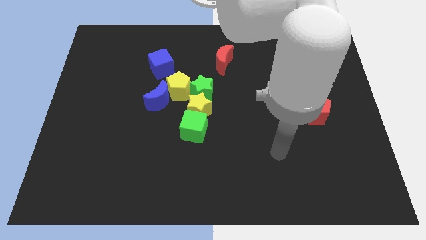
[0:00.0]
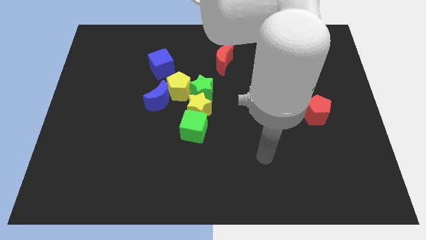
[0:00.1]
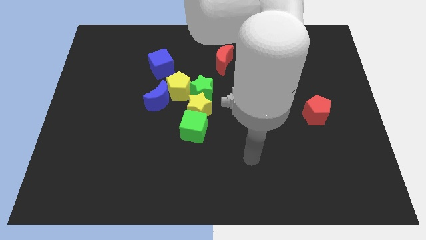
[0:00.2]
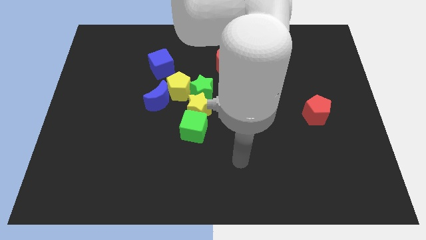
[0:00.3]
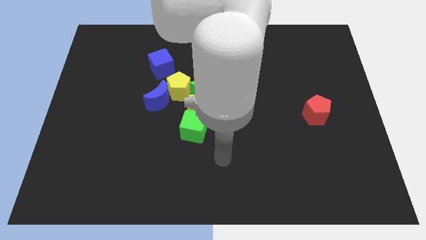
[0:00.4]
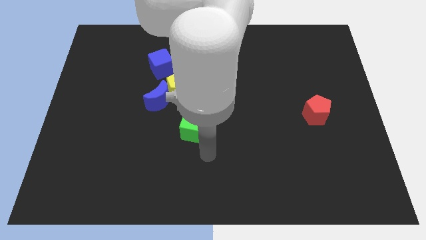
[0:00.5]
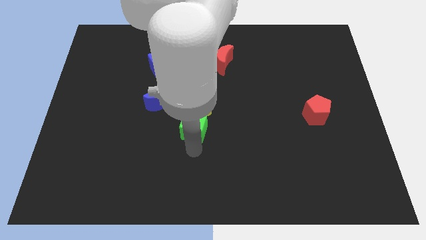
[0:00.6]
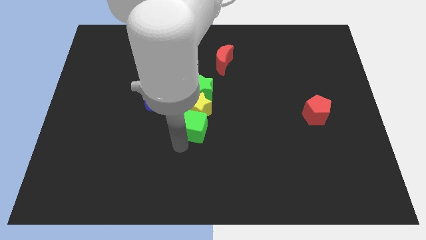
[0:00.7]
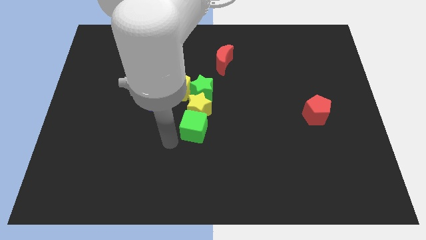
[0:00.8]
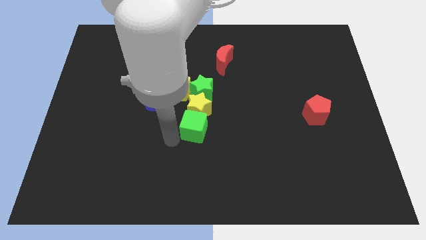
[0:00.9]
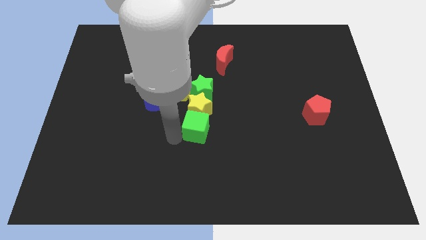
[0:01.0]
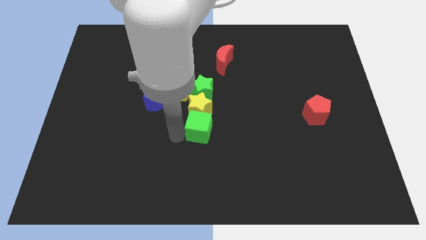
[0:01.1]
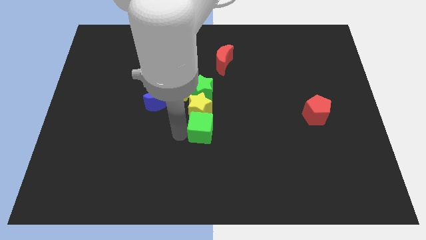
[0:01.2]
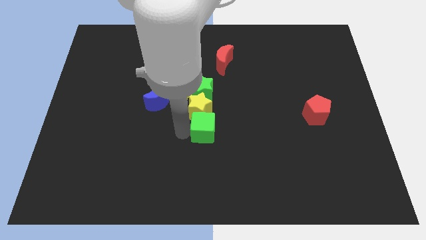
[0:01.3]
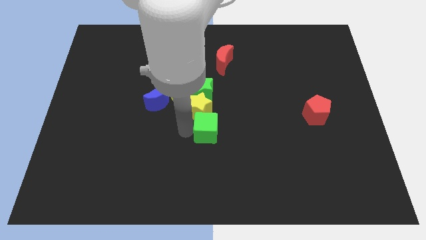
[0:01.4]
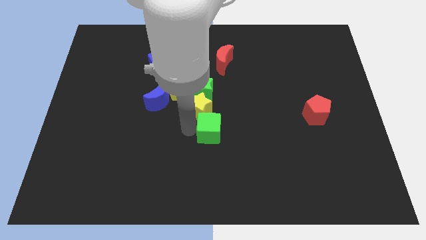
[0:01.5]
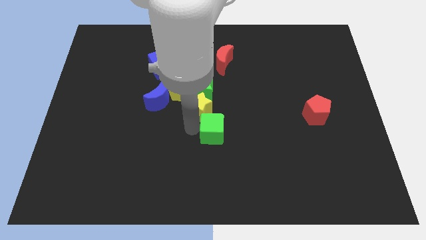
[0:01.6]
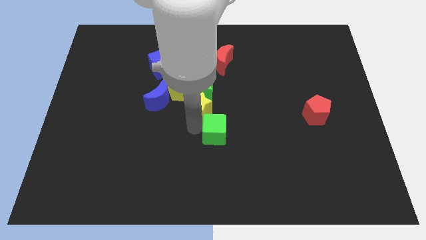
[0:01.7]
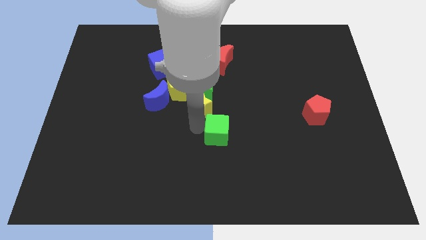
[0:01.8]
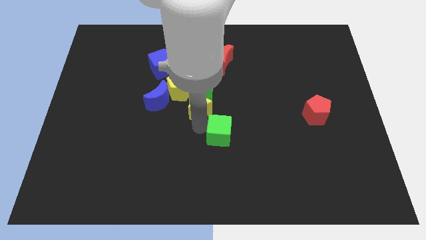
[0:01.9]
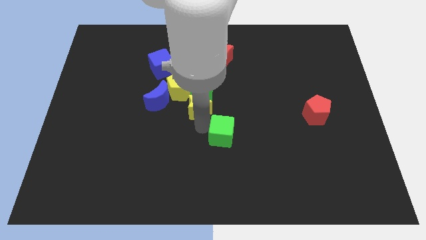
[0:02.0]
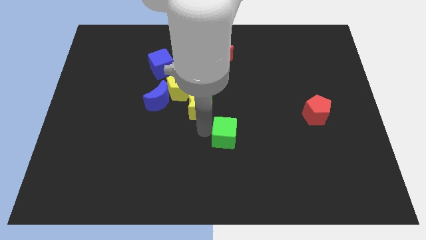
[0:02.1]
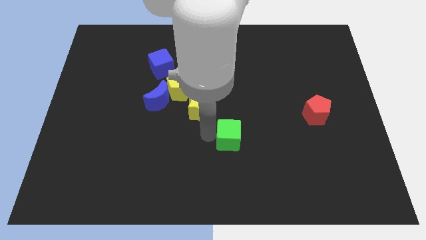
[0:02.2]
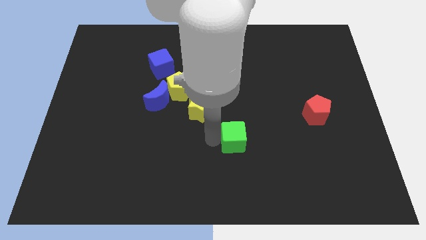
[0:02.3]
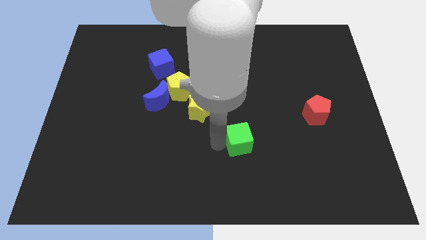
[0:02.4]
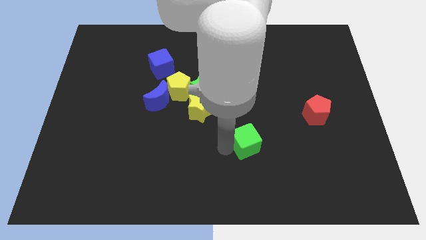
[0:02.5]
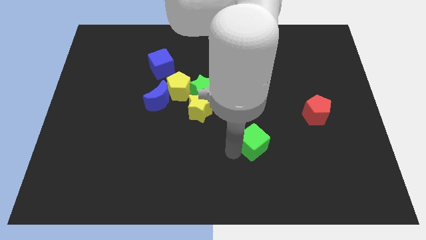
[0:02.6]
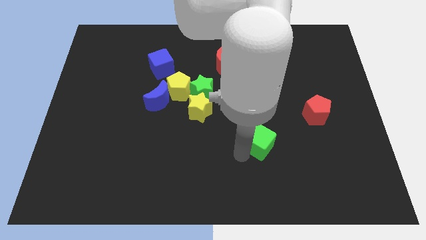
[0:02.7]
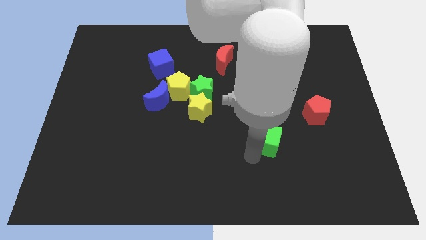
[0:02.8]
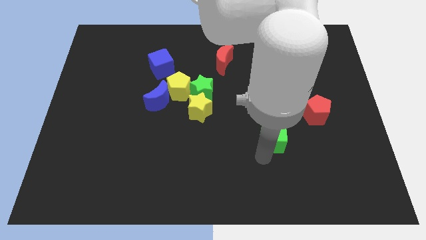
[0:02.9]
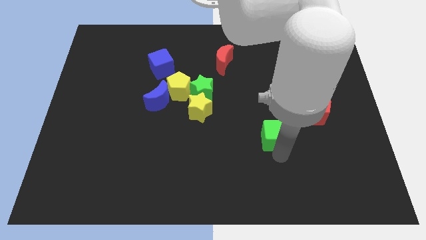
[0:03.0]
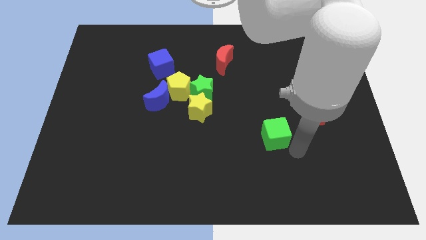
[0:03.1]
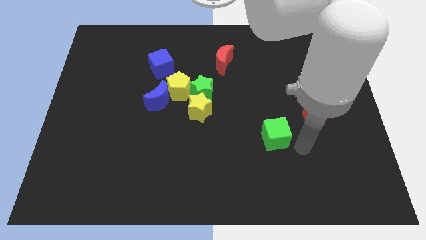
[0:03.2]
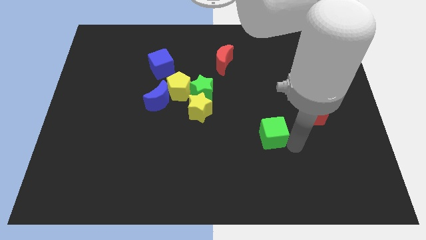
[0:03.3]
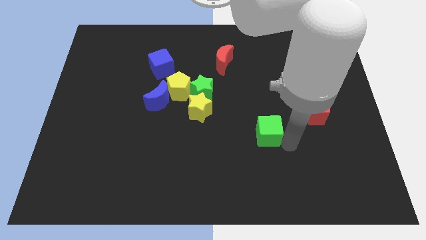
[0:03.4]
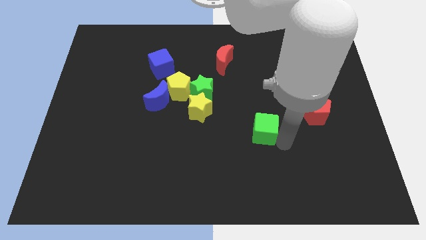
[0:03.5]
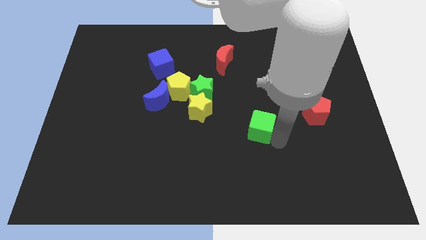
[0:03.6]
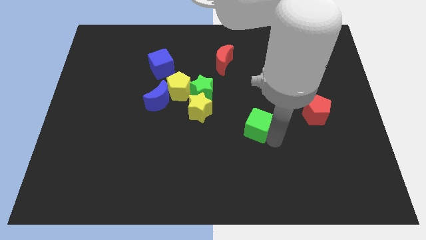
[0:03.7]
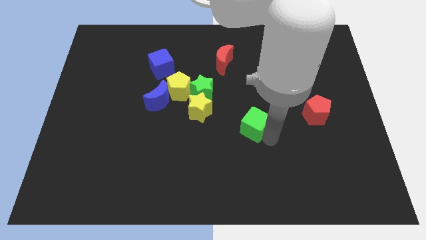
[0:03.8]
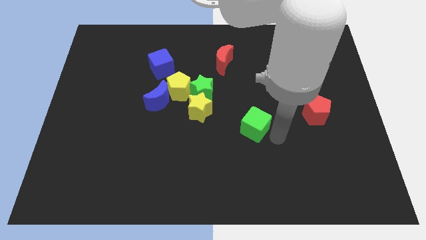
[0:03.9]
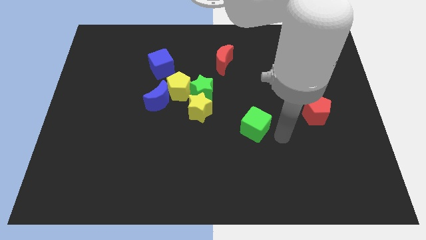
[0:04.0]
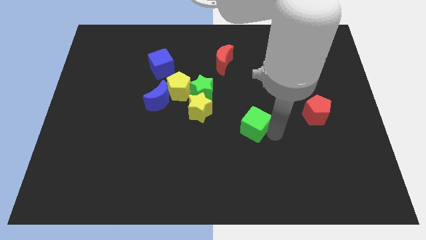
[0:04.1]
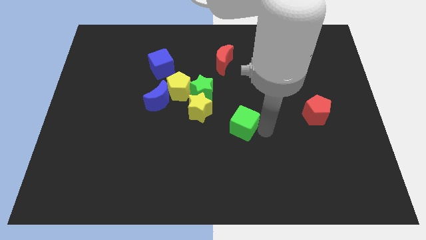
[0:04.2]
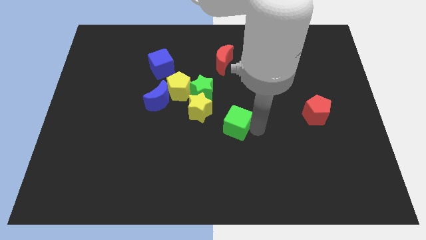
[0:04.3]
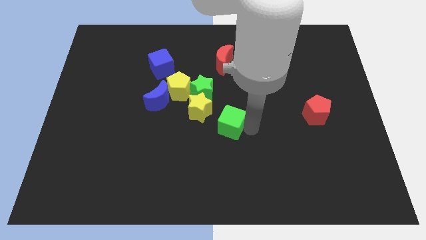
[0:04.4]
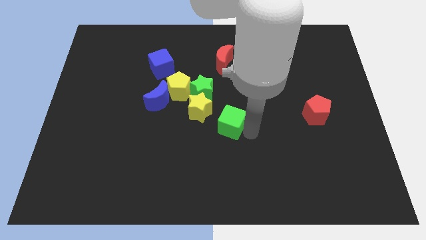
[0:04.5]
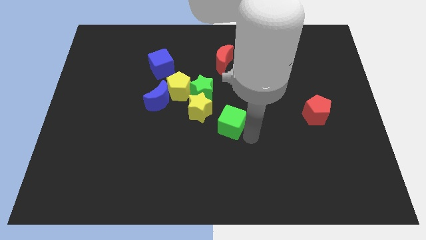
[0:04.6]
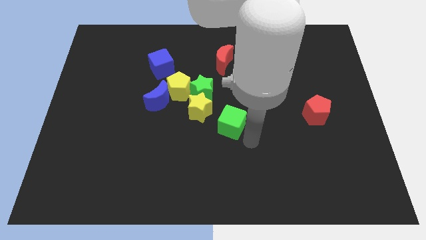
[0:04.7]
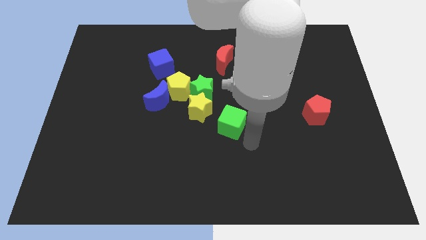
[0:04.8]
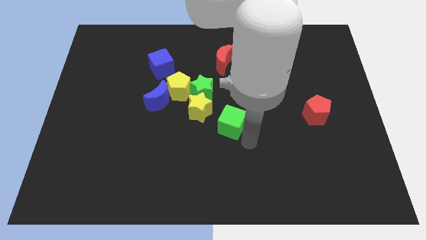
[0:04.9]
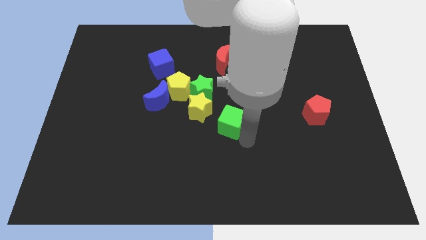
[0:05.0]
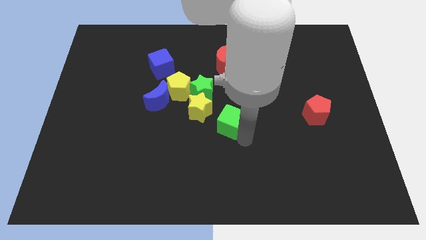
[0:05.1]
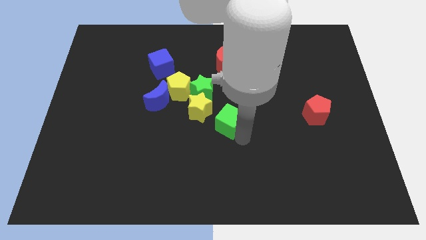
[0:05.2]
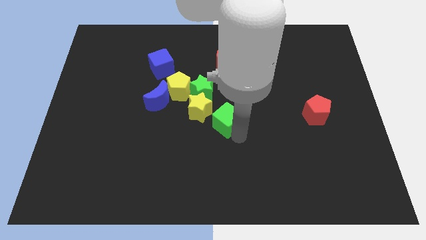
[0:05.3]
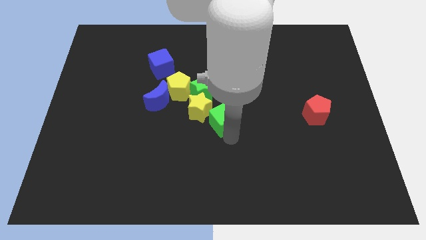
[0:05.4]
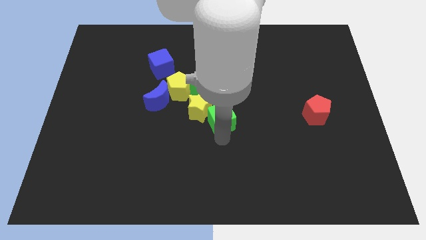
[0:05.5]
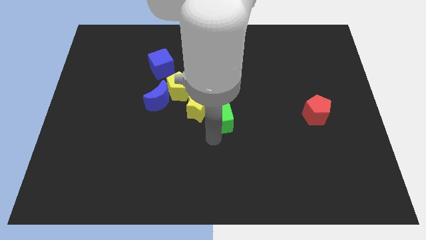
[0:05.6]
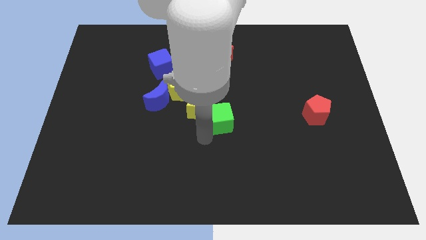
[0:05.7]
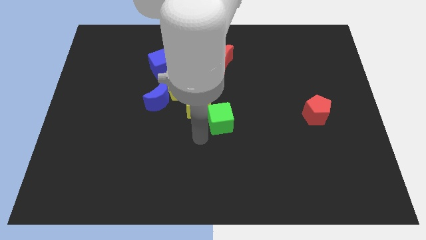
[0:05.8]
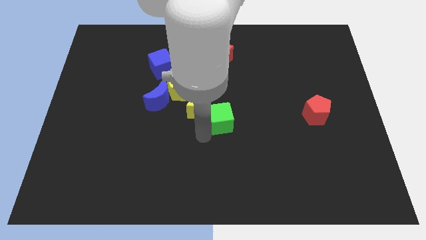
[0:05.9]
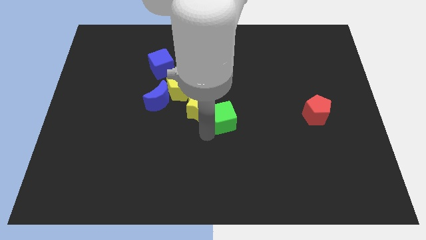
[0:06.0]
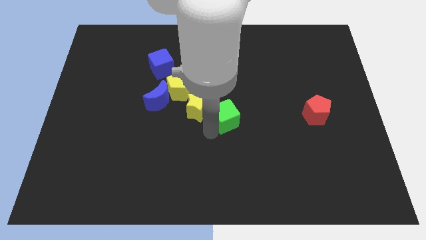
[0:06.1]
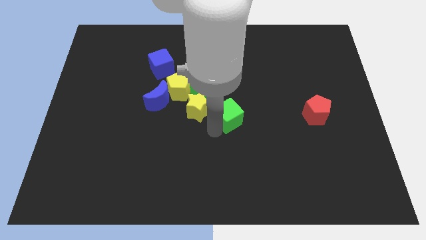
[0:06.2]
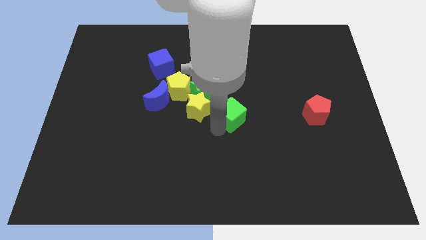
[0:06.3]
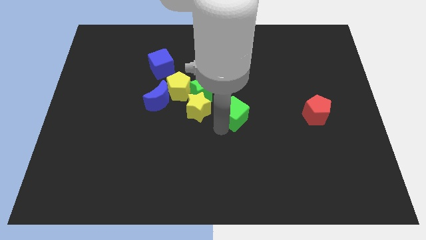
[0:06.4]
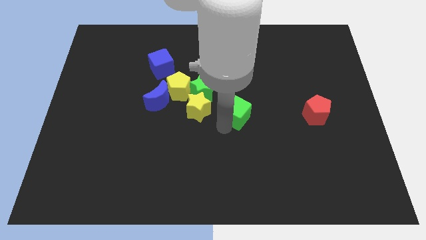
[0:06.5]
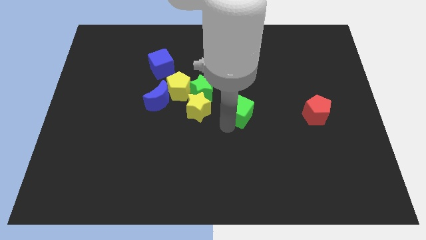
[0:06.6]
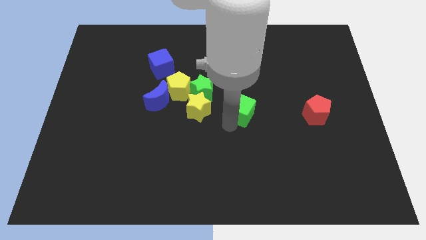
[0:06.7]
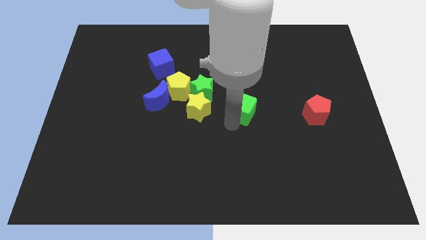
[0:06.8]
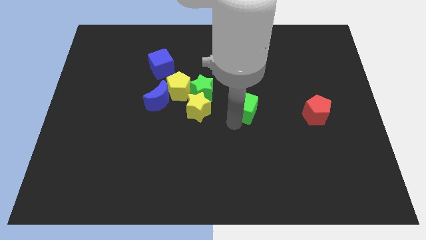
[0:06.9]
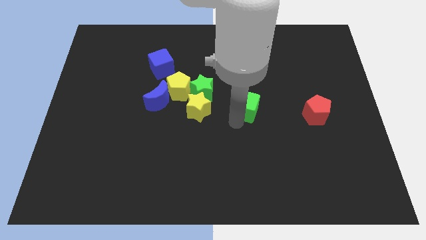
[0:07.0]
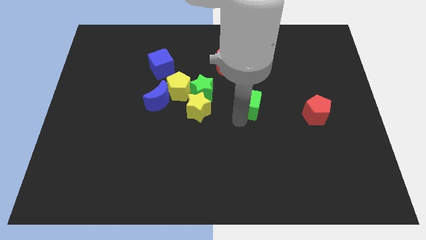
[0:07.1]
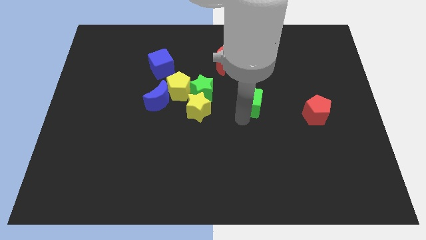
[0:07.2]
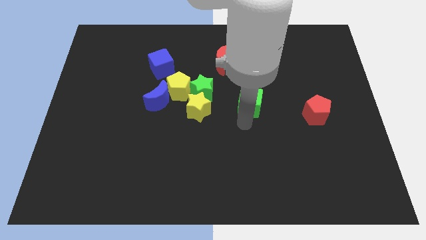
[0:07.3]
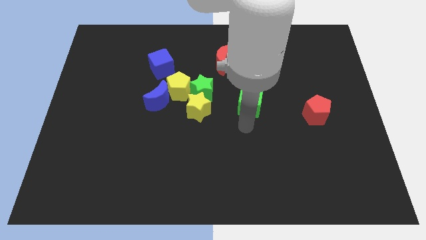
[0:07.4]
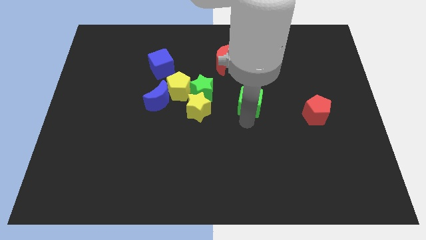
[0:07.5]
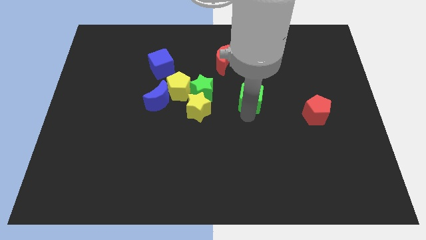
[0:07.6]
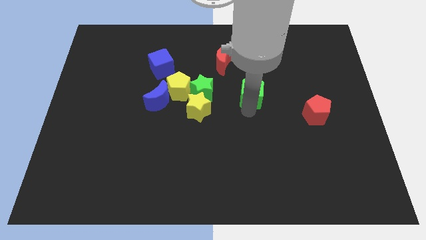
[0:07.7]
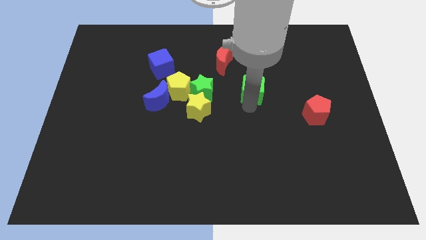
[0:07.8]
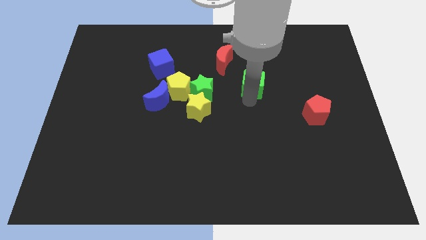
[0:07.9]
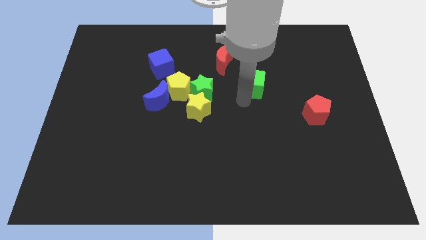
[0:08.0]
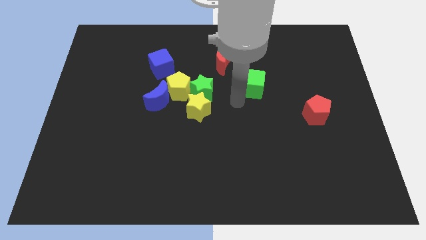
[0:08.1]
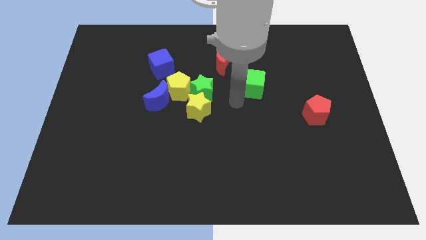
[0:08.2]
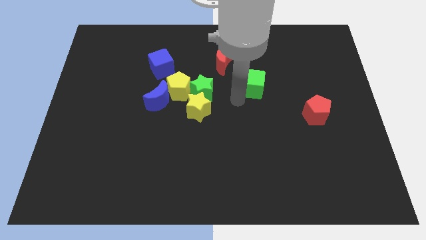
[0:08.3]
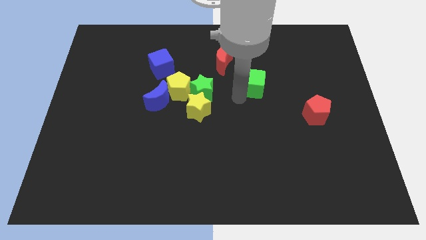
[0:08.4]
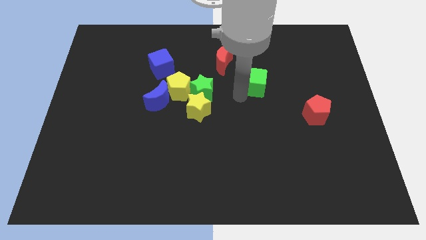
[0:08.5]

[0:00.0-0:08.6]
slide the green cube upwards and right diagonally
